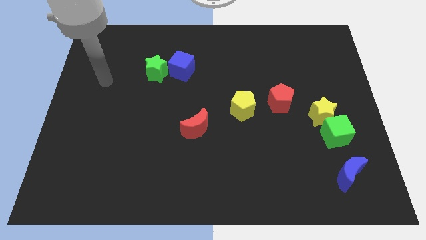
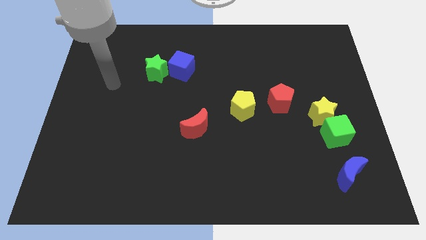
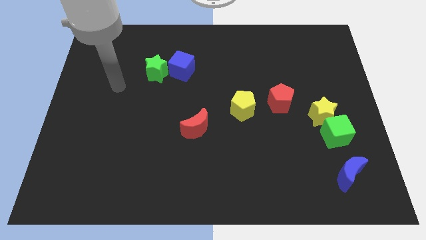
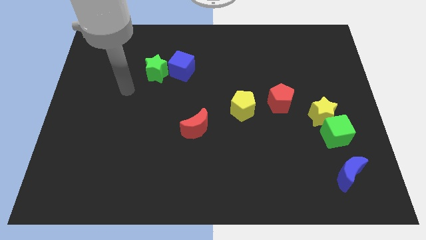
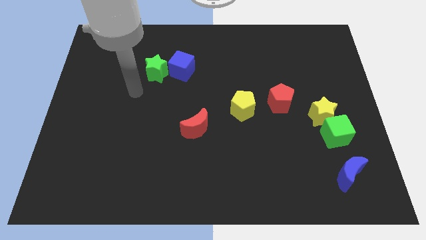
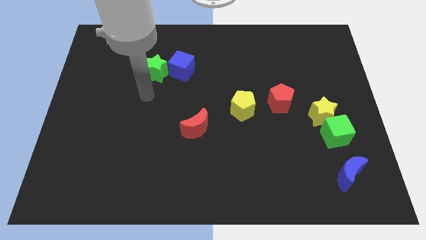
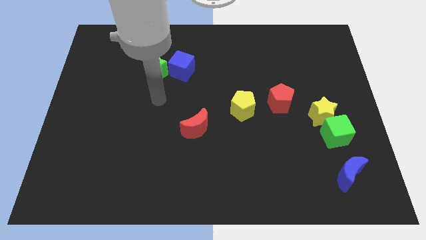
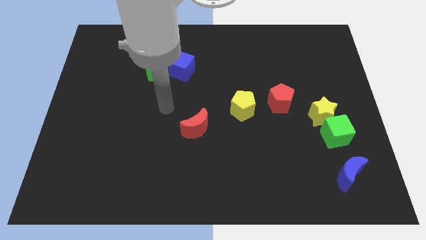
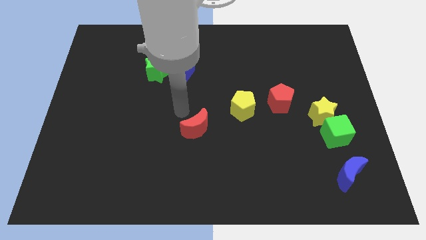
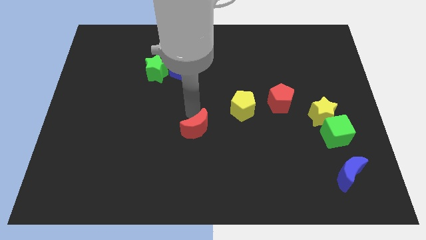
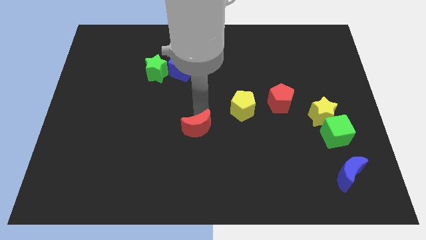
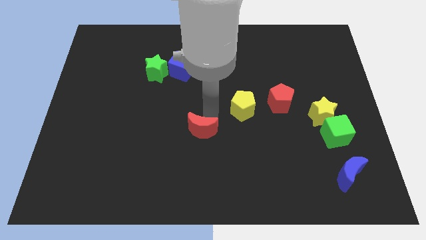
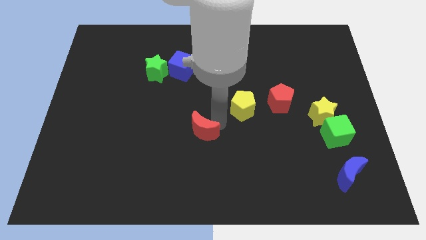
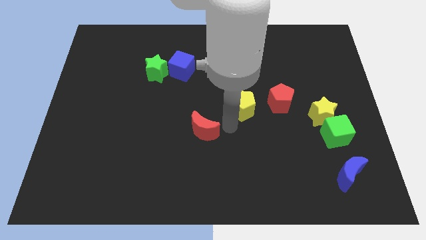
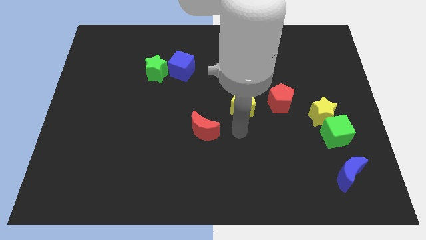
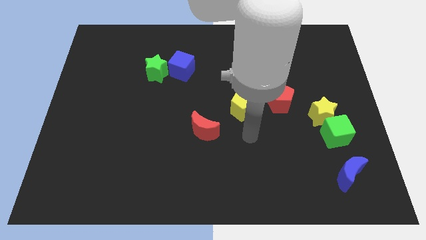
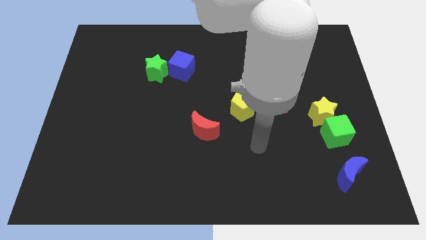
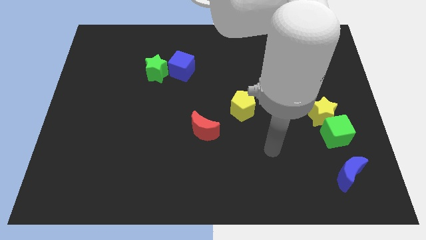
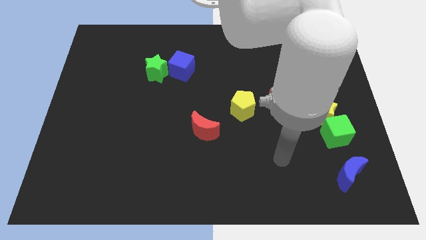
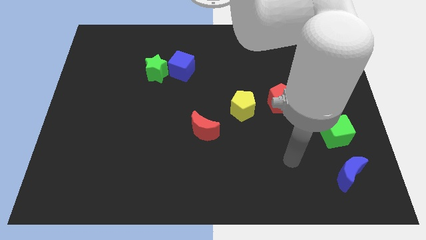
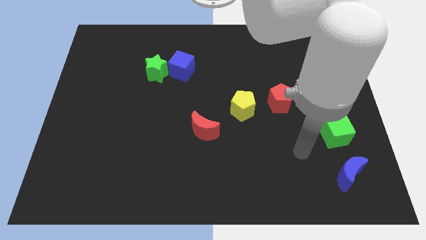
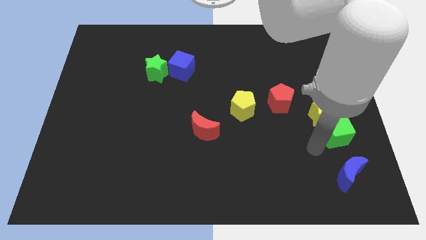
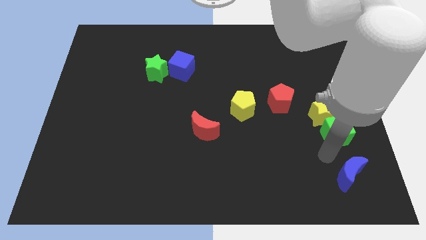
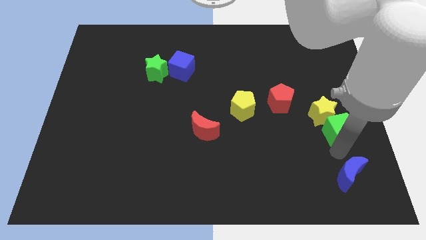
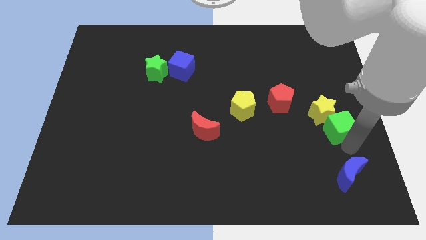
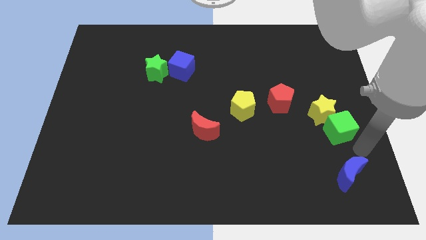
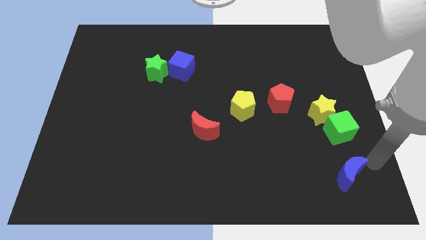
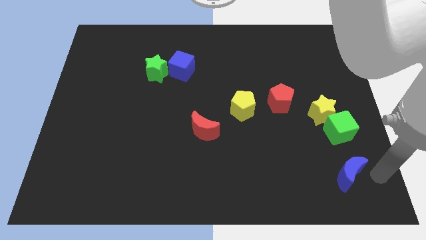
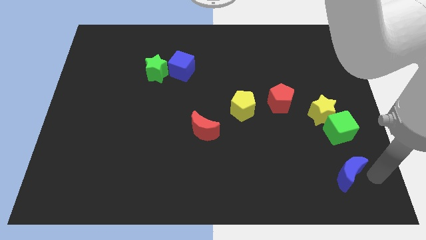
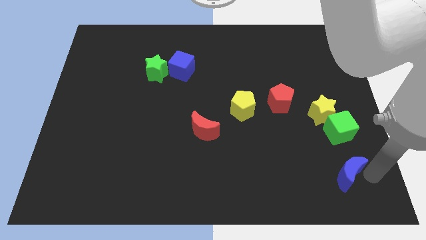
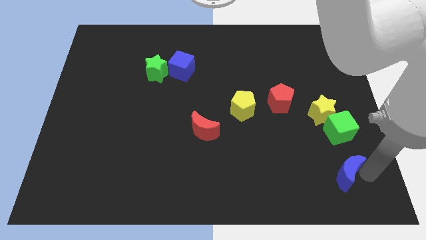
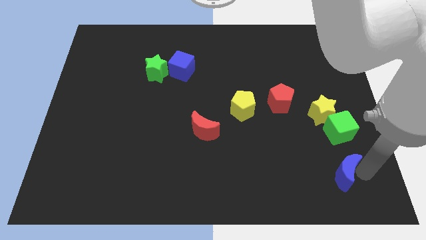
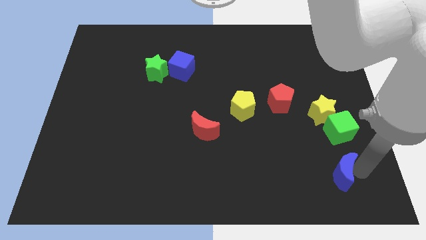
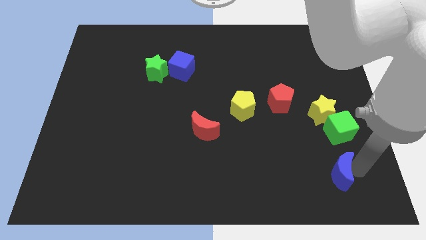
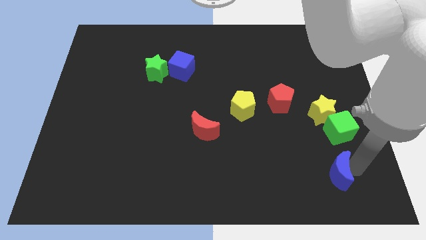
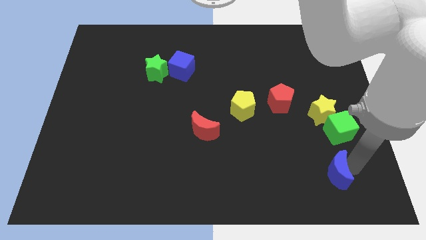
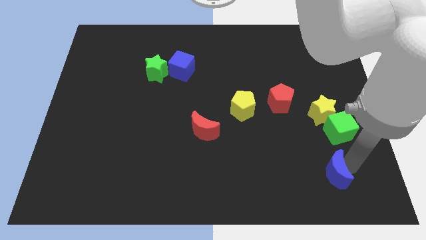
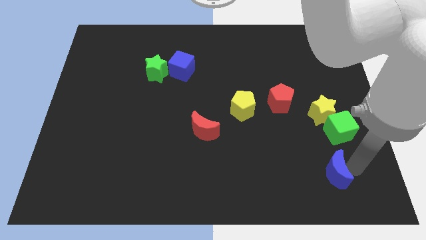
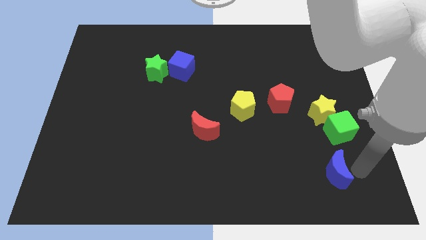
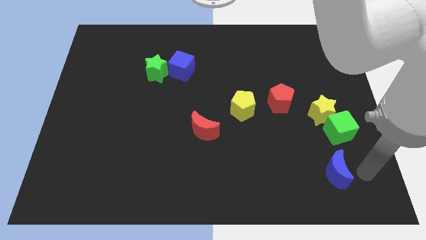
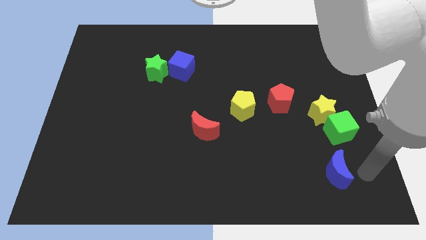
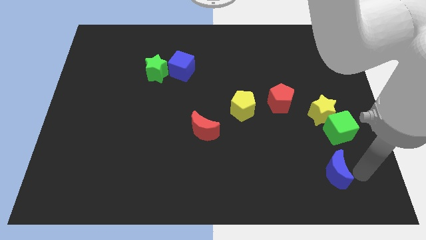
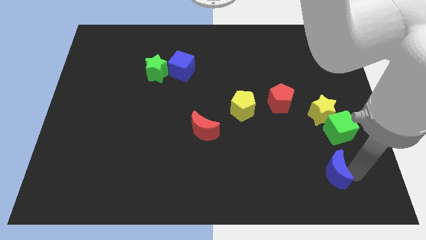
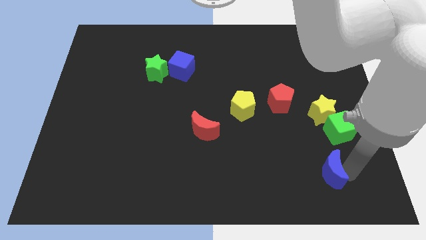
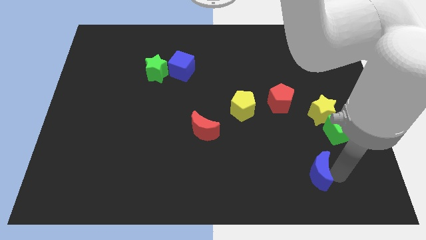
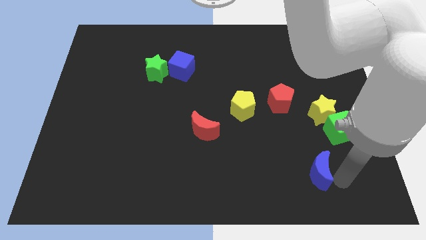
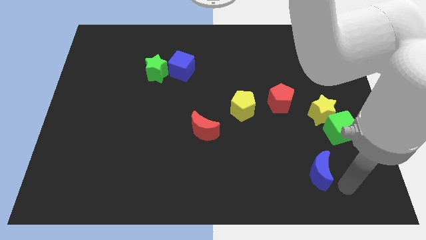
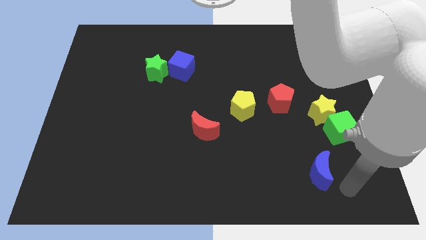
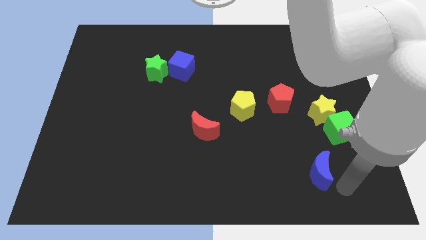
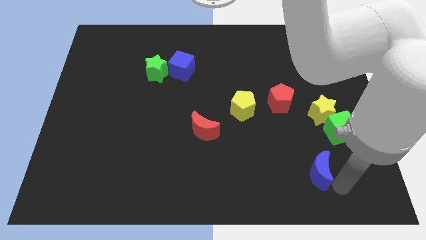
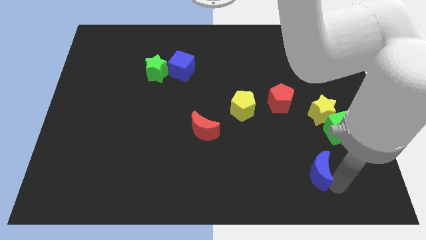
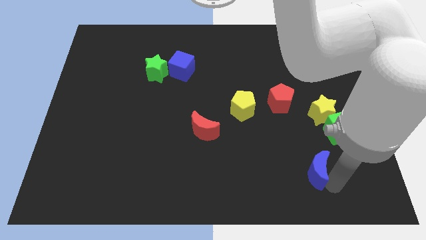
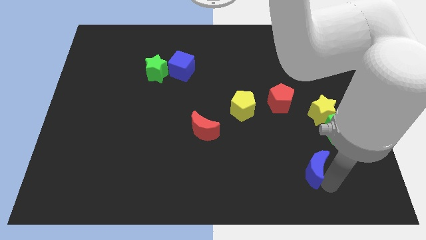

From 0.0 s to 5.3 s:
move the blue moon a little bit left

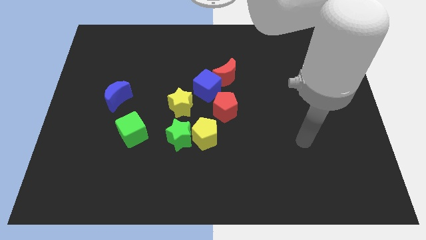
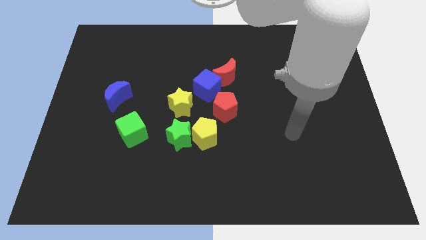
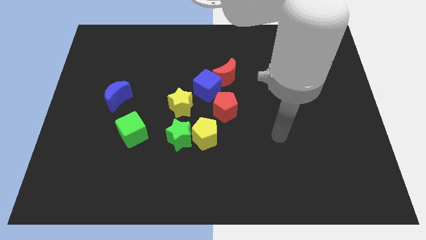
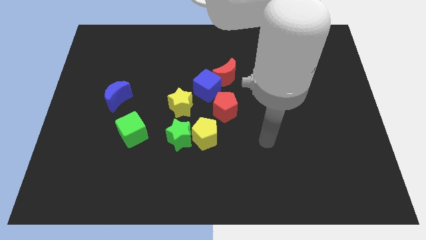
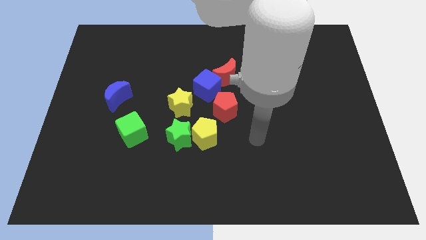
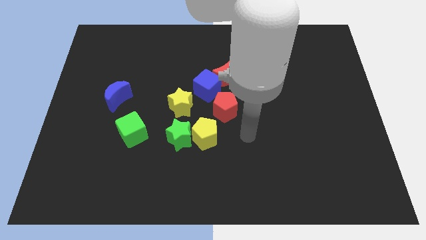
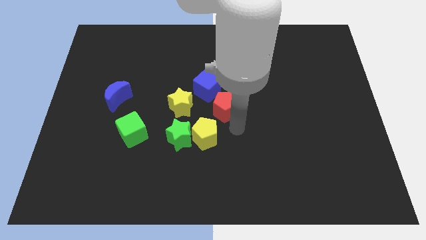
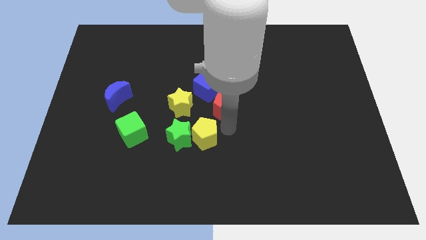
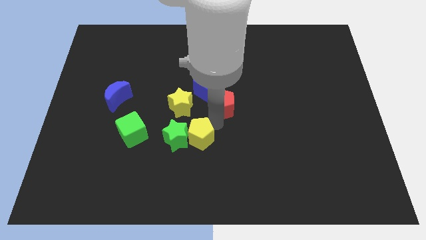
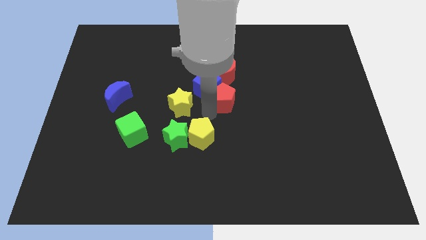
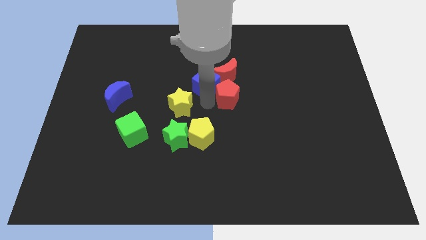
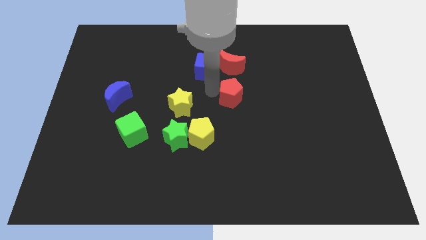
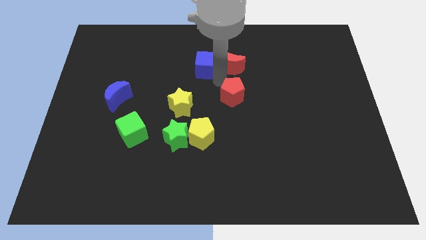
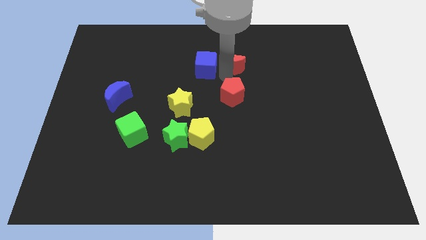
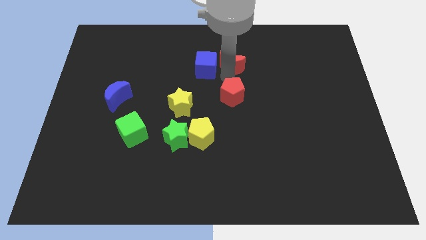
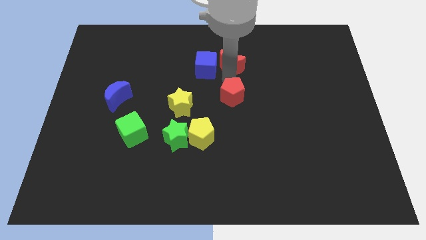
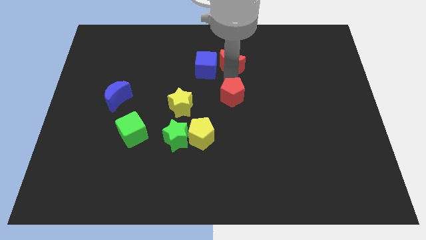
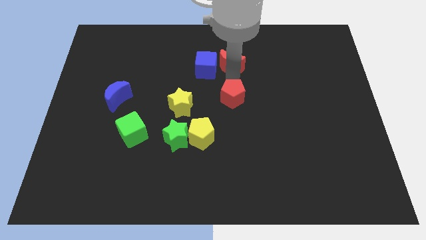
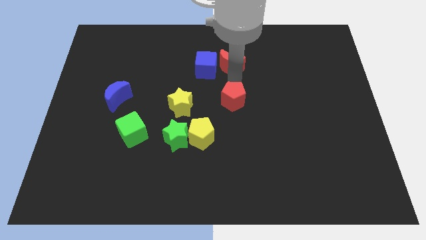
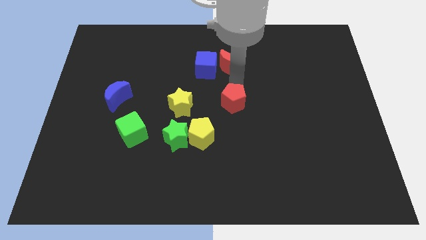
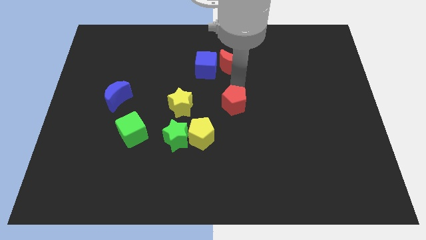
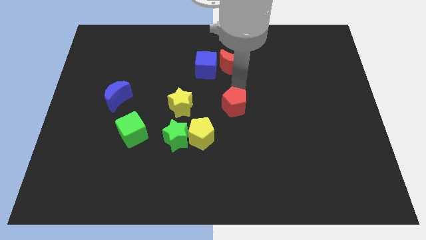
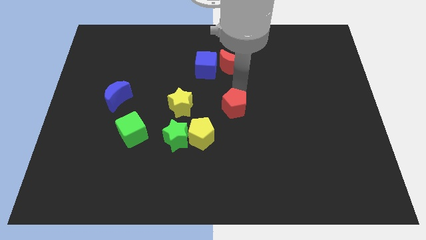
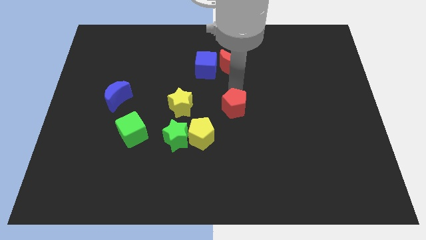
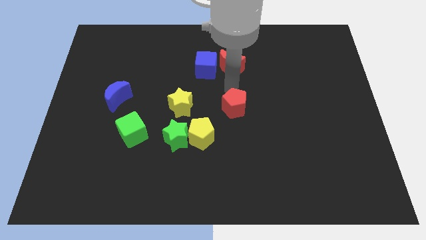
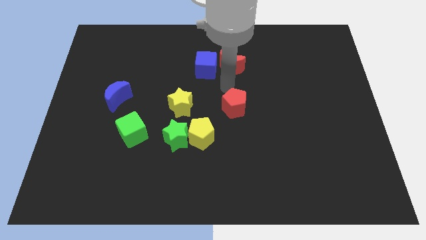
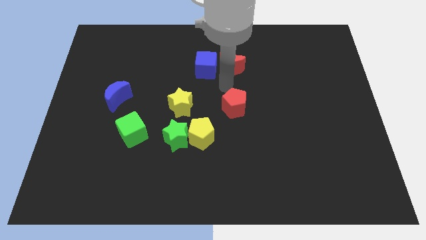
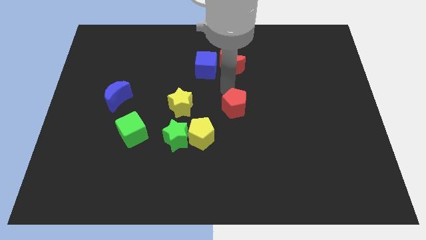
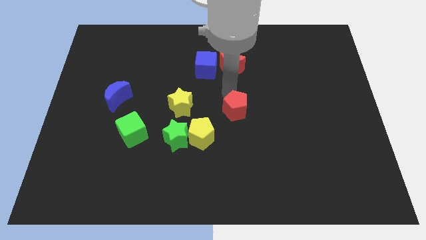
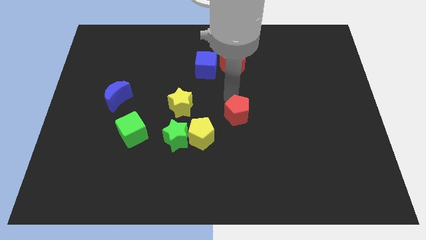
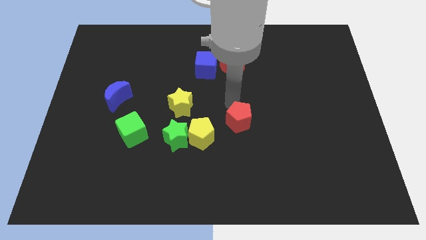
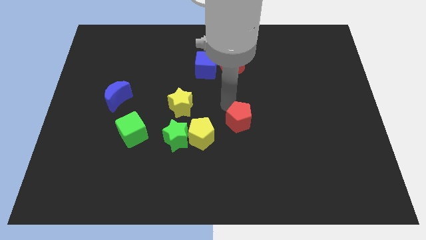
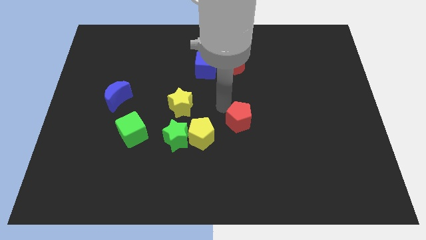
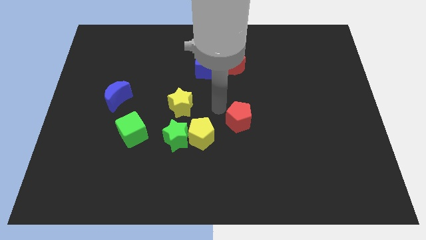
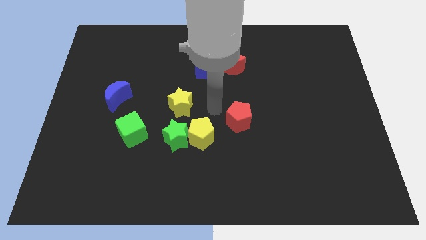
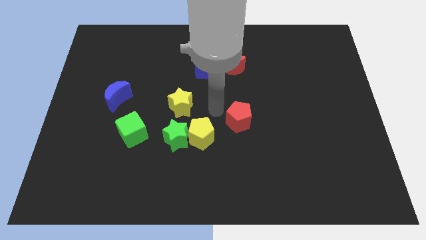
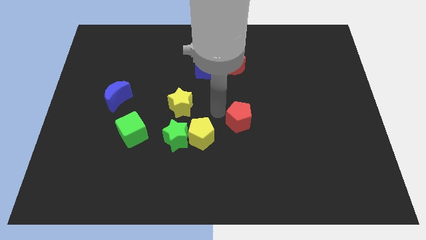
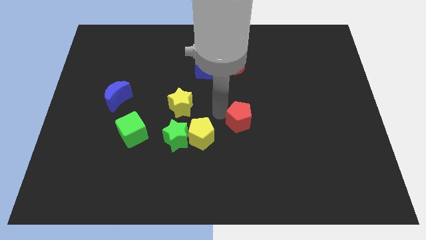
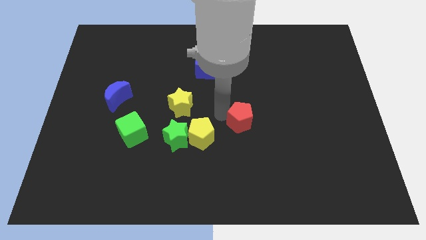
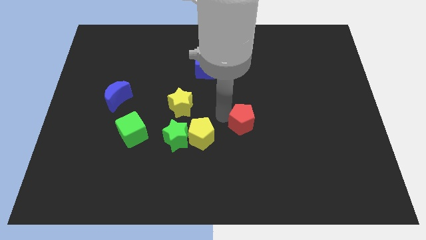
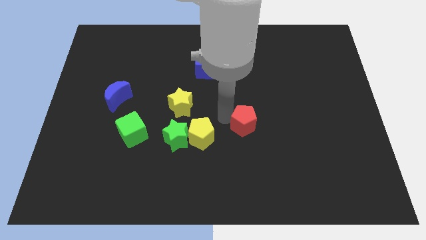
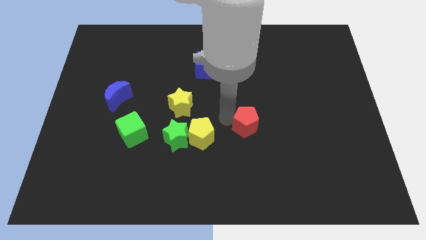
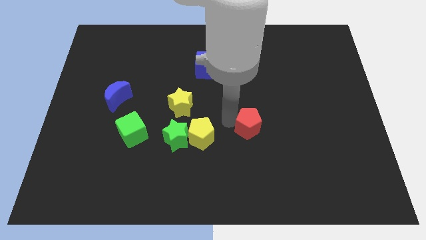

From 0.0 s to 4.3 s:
move the red pentagon a little bit downwards and to the right diagonally
